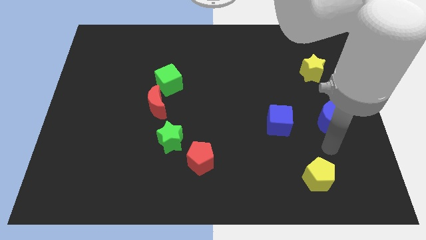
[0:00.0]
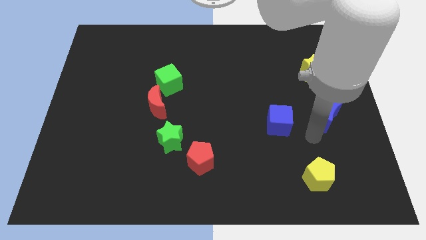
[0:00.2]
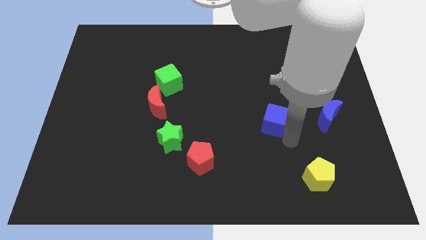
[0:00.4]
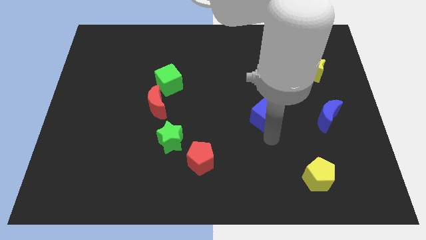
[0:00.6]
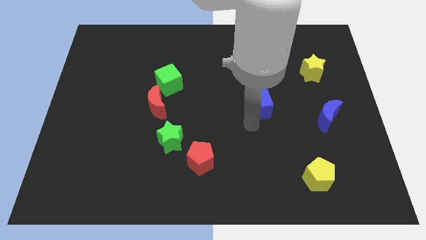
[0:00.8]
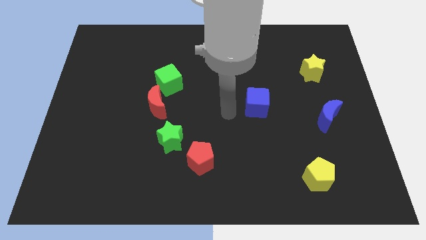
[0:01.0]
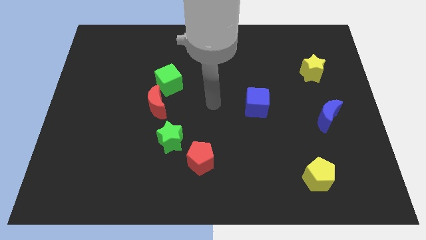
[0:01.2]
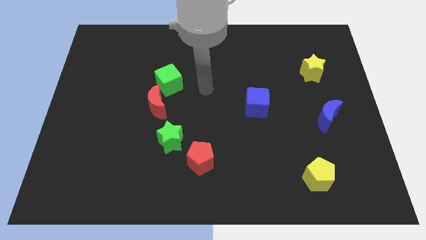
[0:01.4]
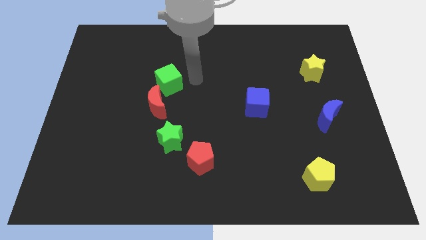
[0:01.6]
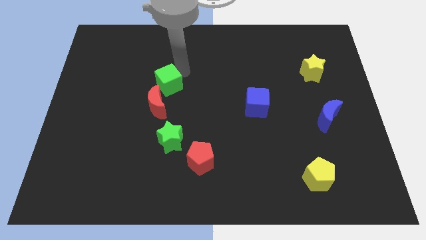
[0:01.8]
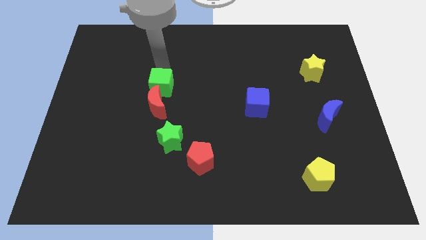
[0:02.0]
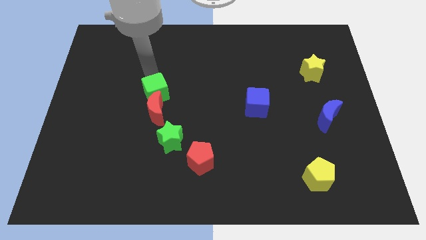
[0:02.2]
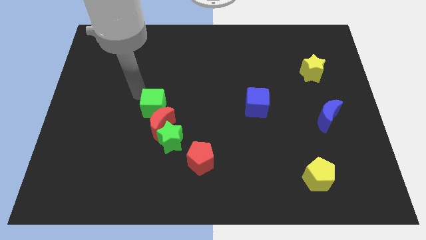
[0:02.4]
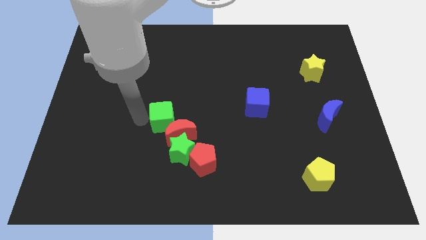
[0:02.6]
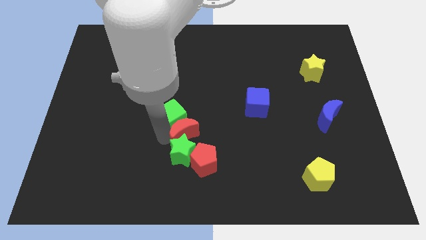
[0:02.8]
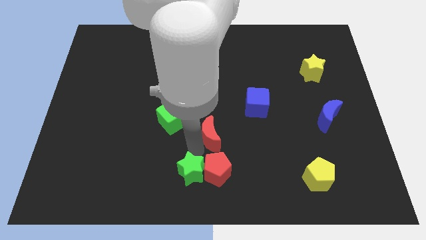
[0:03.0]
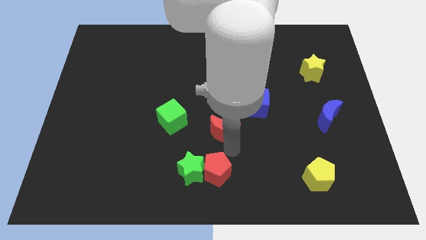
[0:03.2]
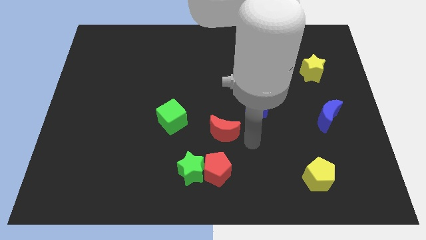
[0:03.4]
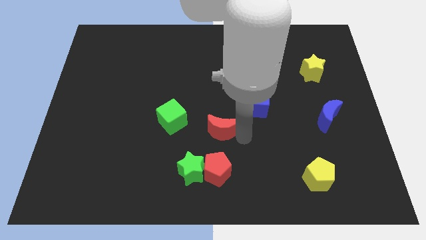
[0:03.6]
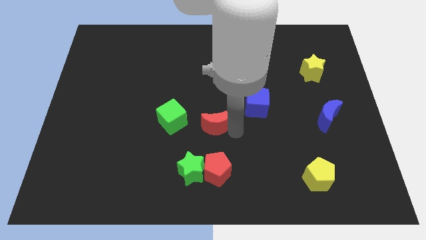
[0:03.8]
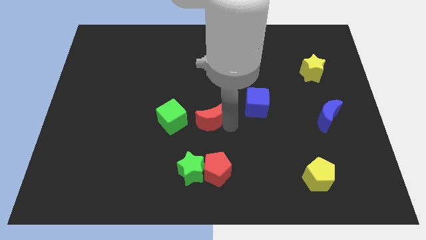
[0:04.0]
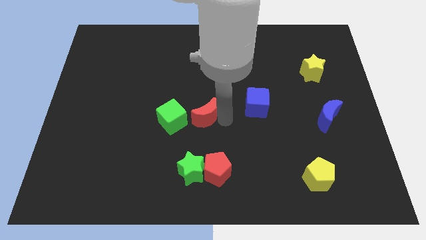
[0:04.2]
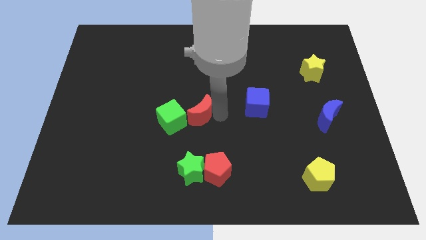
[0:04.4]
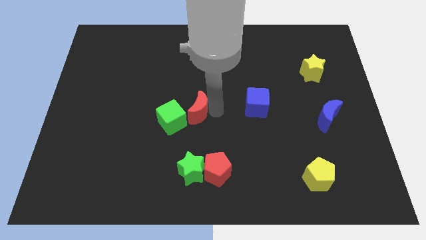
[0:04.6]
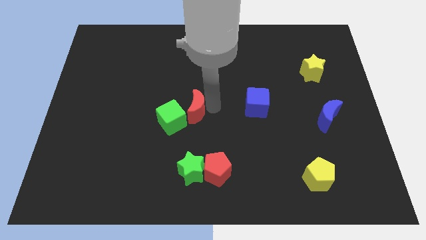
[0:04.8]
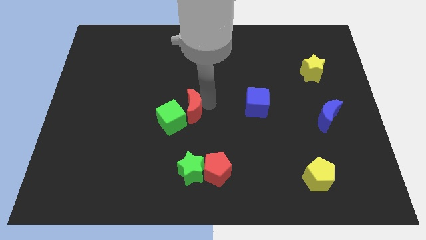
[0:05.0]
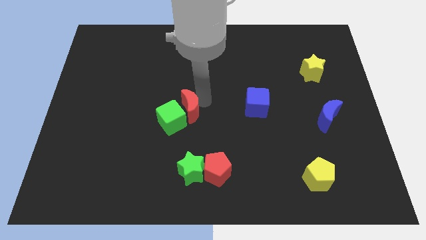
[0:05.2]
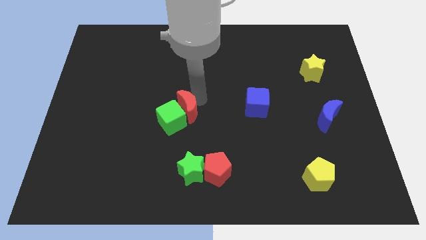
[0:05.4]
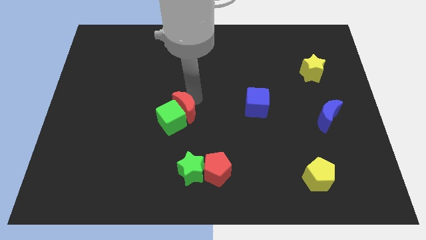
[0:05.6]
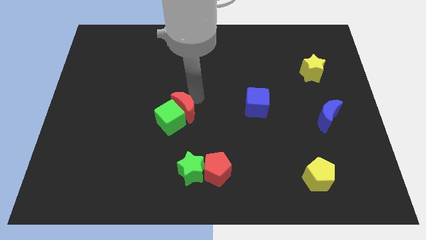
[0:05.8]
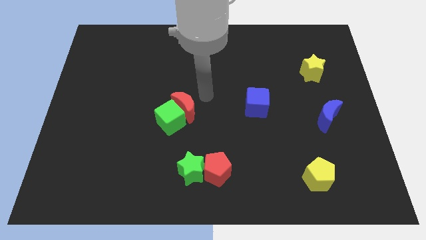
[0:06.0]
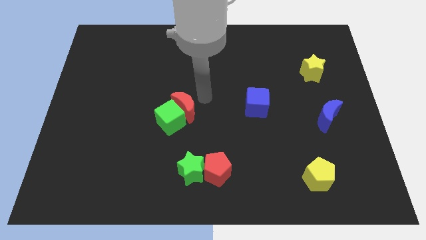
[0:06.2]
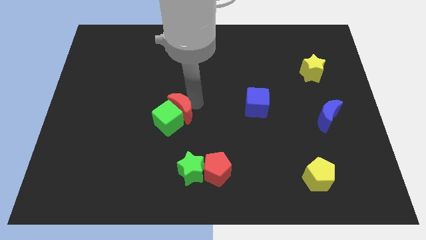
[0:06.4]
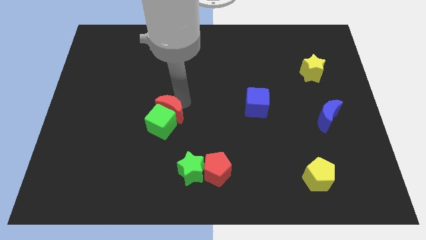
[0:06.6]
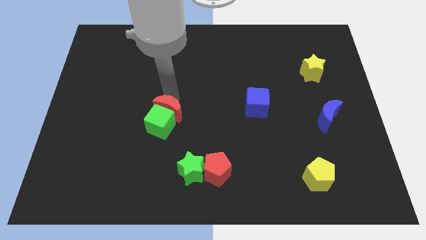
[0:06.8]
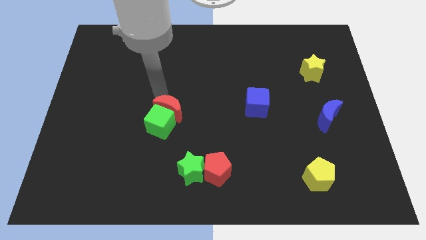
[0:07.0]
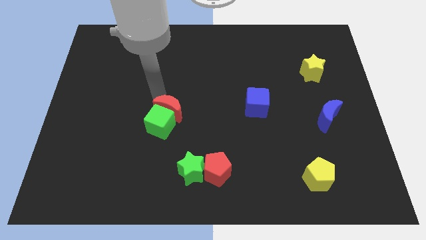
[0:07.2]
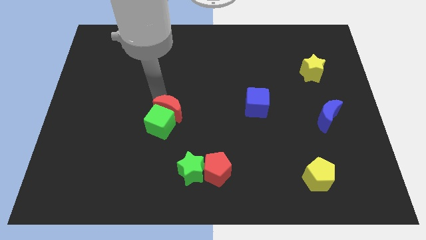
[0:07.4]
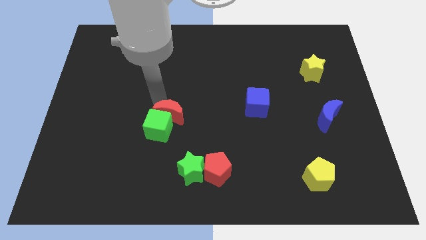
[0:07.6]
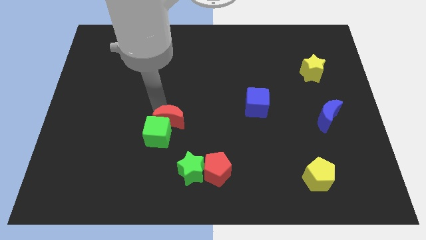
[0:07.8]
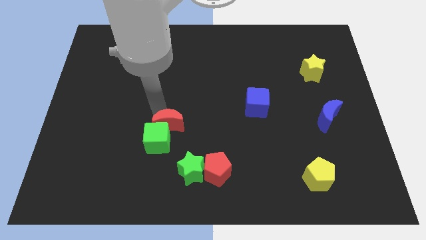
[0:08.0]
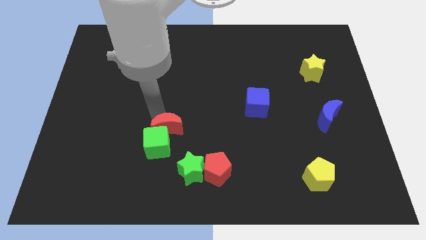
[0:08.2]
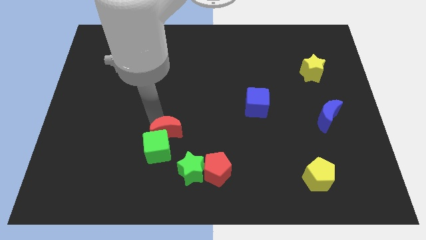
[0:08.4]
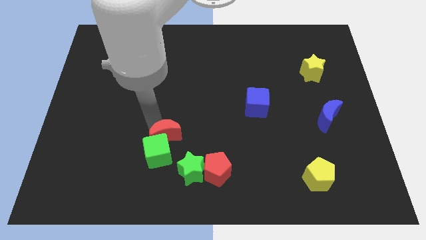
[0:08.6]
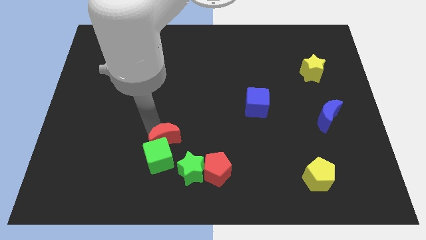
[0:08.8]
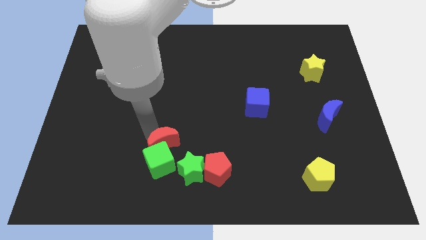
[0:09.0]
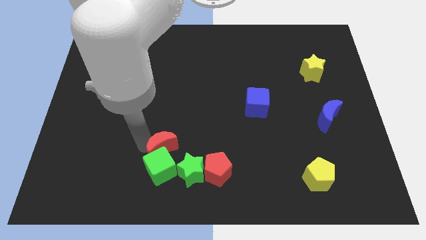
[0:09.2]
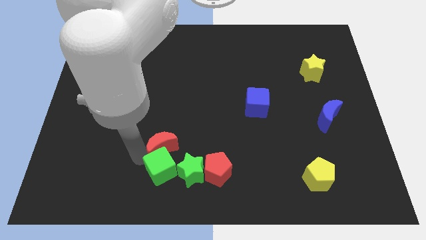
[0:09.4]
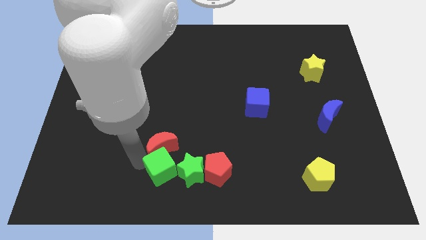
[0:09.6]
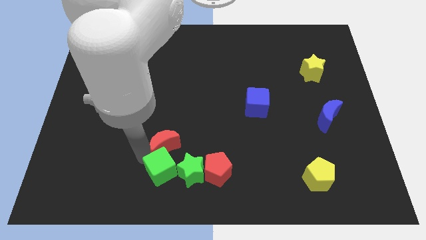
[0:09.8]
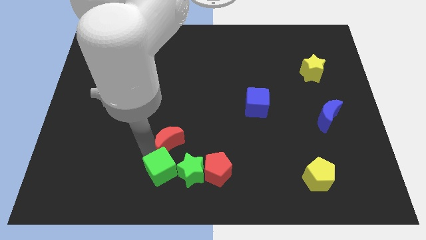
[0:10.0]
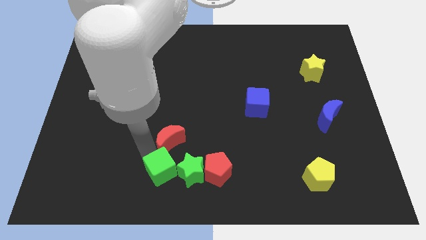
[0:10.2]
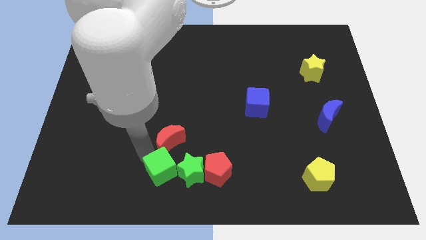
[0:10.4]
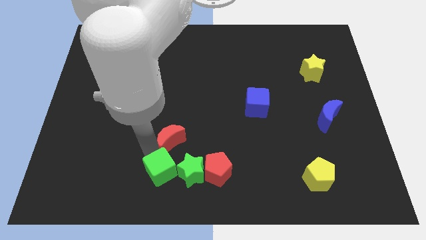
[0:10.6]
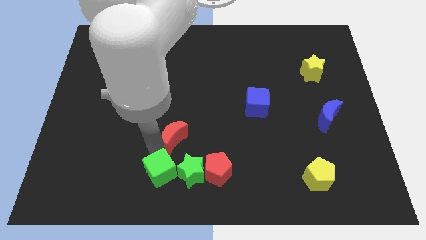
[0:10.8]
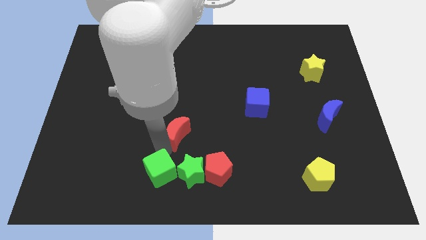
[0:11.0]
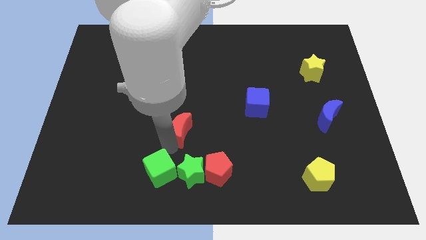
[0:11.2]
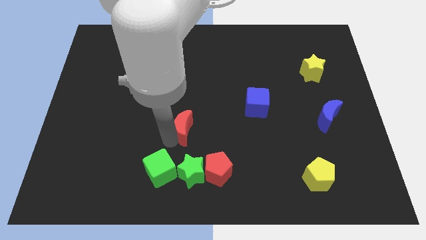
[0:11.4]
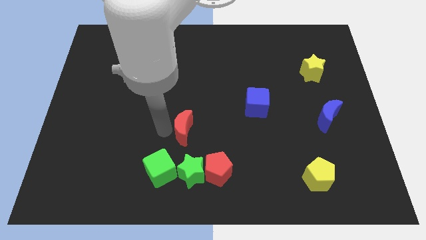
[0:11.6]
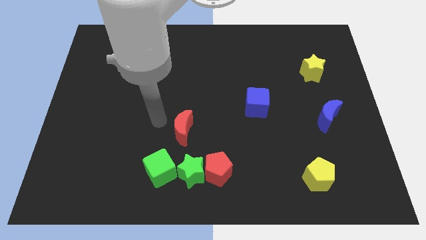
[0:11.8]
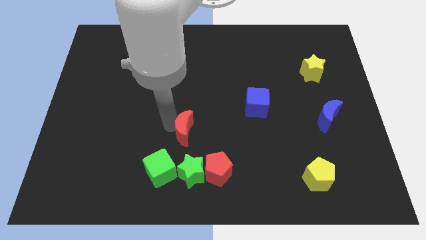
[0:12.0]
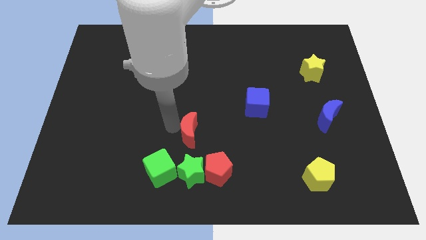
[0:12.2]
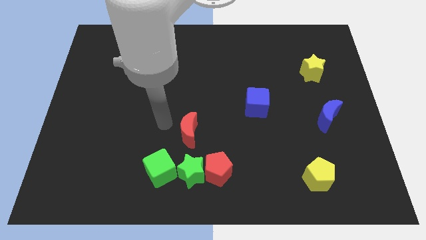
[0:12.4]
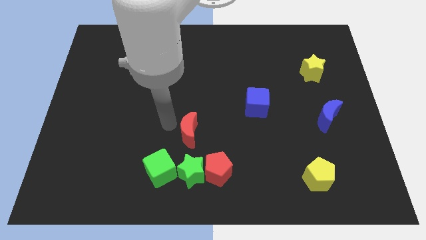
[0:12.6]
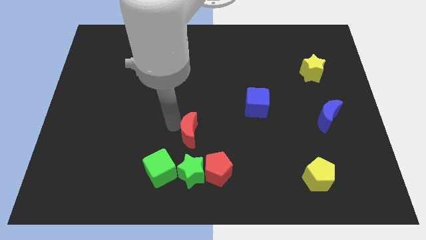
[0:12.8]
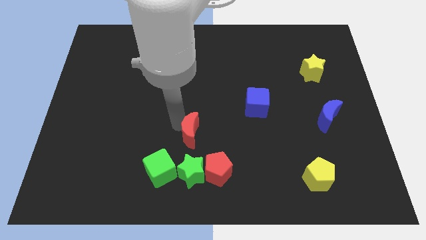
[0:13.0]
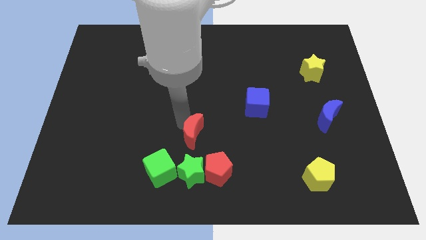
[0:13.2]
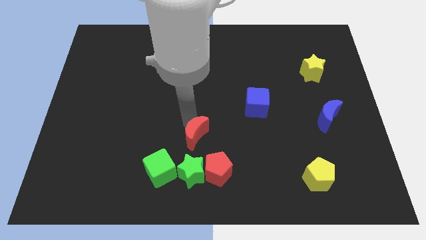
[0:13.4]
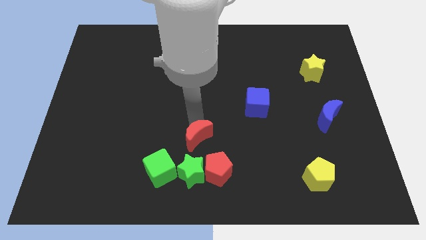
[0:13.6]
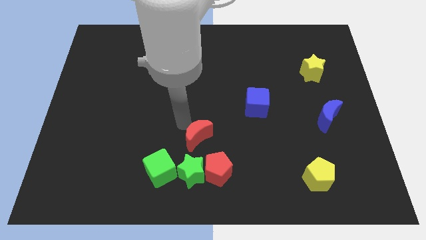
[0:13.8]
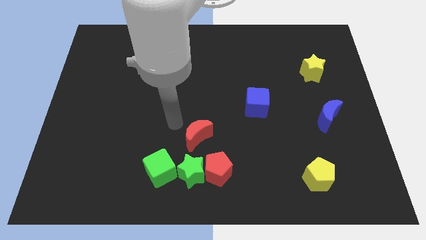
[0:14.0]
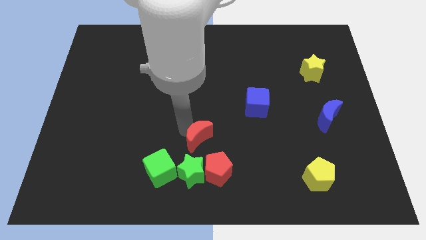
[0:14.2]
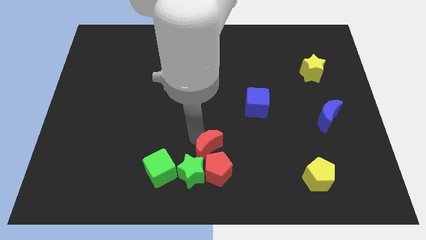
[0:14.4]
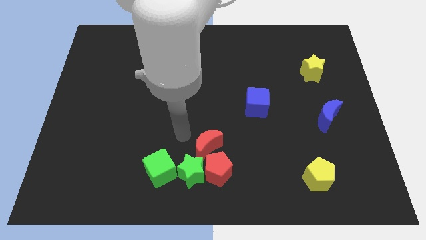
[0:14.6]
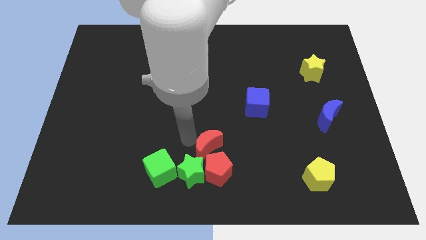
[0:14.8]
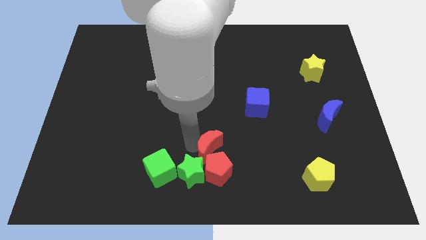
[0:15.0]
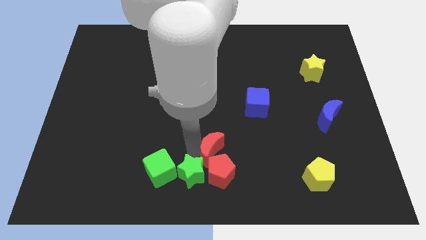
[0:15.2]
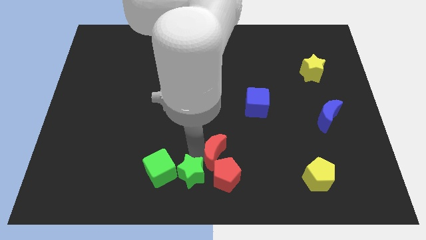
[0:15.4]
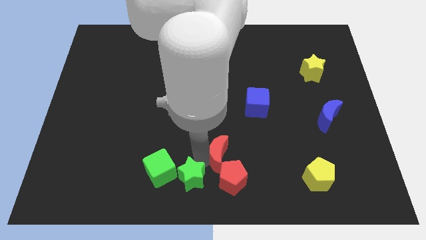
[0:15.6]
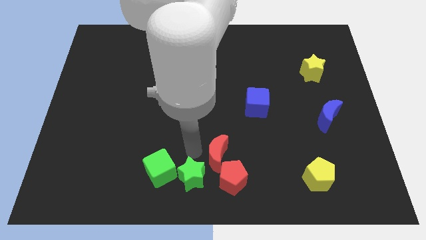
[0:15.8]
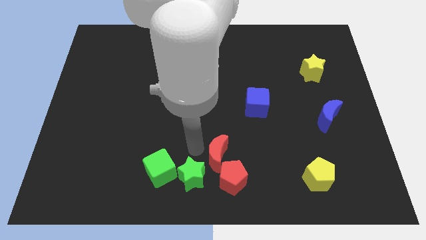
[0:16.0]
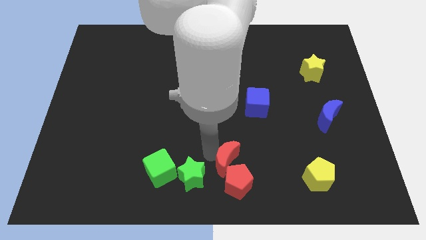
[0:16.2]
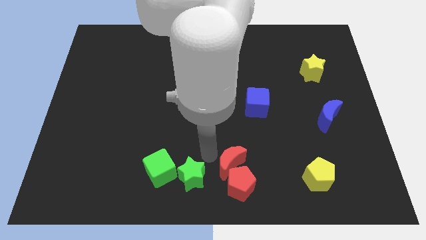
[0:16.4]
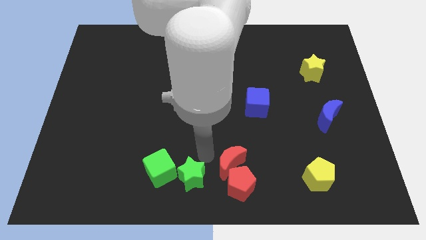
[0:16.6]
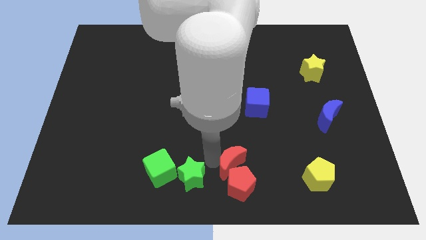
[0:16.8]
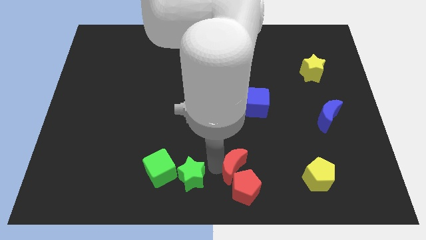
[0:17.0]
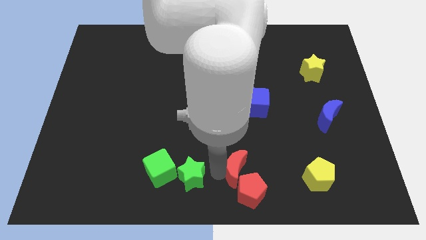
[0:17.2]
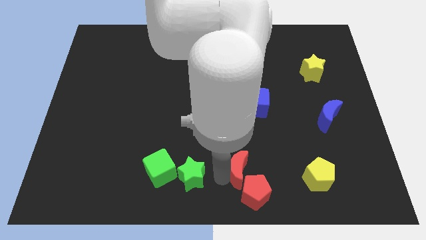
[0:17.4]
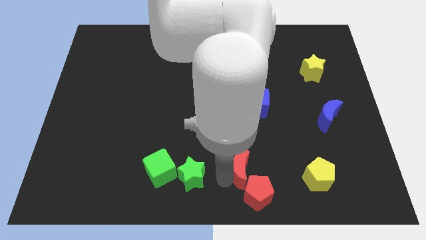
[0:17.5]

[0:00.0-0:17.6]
slide the red moon to the left of the yellow pentagon
